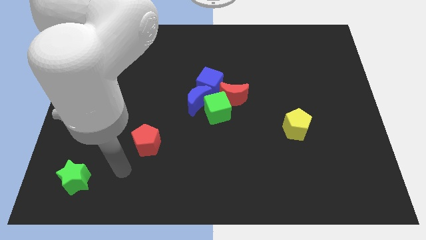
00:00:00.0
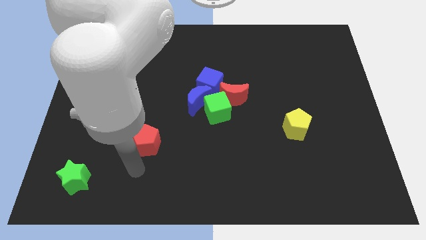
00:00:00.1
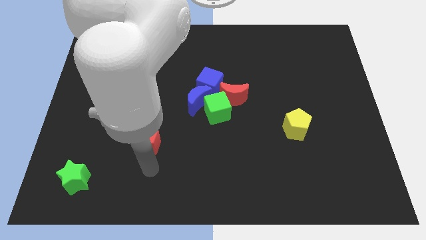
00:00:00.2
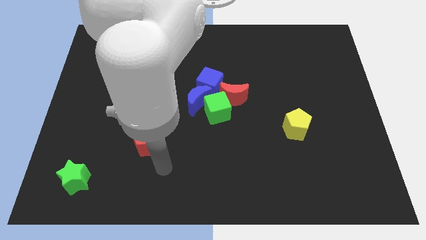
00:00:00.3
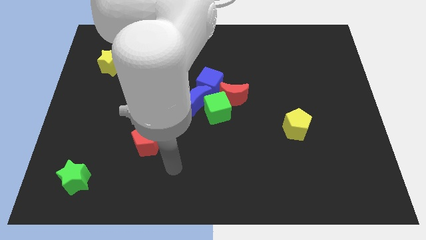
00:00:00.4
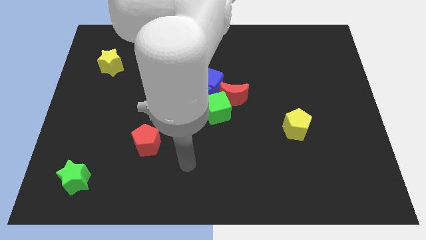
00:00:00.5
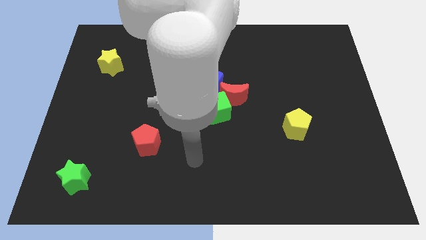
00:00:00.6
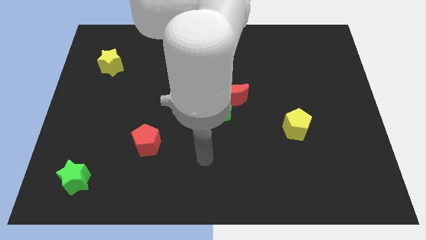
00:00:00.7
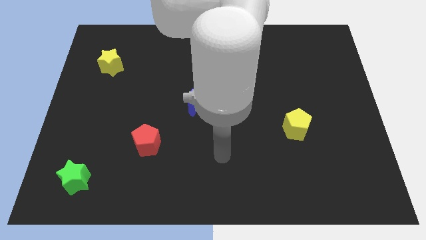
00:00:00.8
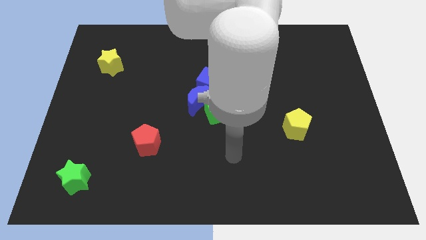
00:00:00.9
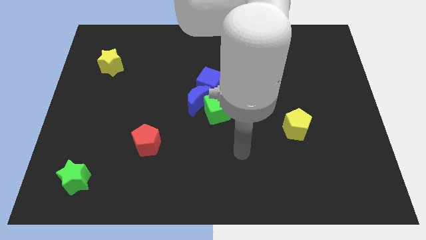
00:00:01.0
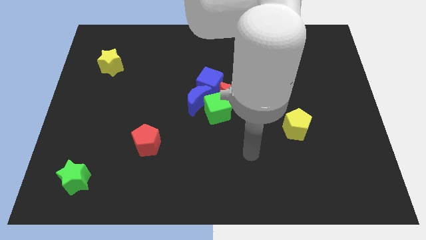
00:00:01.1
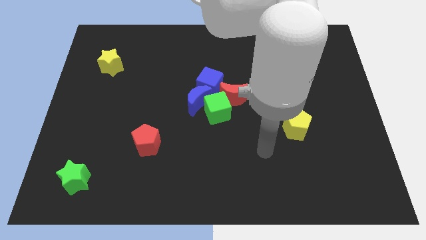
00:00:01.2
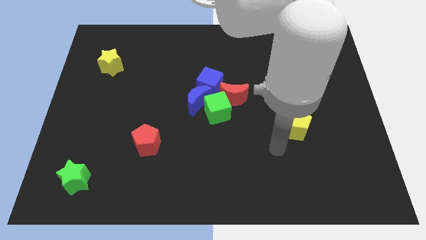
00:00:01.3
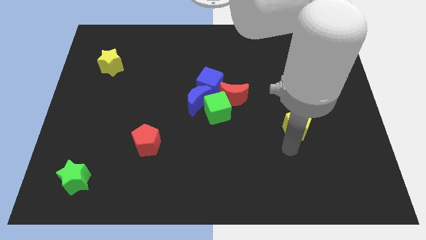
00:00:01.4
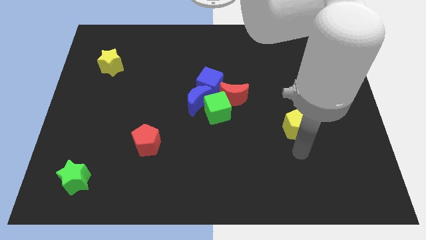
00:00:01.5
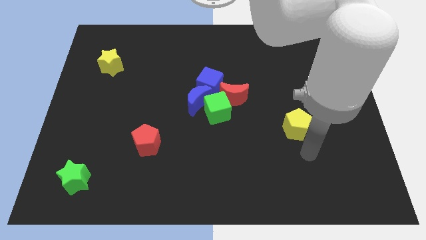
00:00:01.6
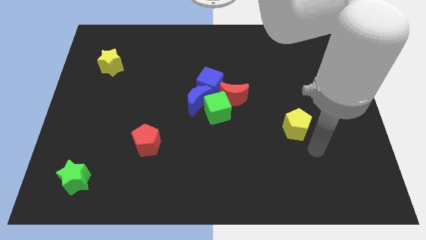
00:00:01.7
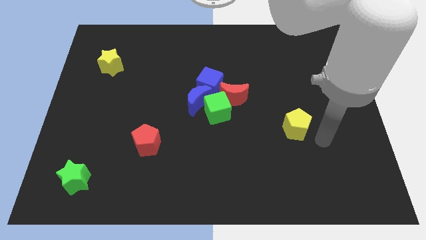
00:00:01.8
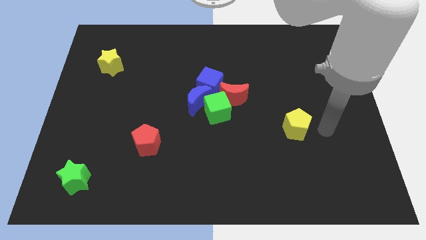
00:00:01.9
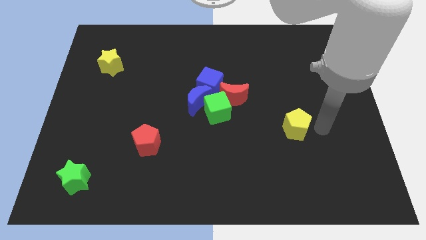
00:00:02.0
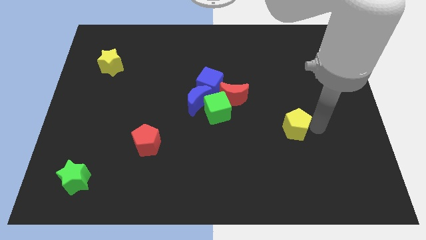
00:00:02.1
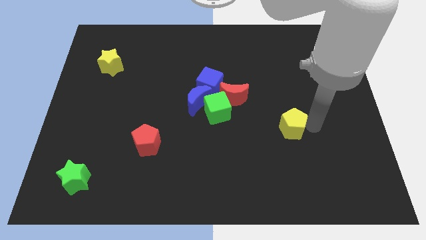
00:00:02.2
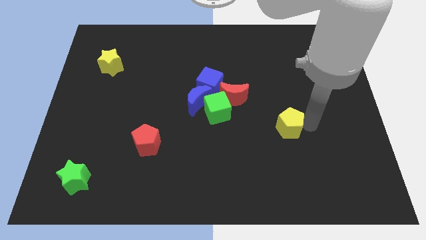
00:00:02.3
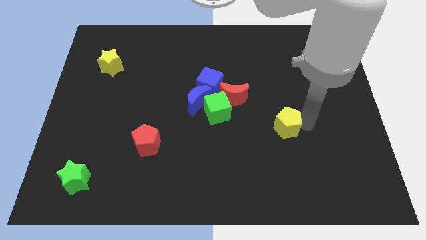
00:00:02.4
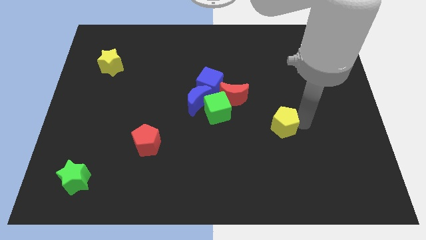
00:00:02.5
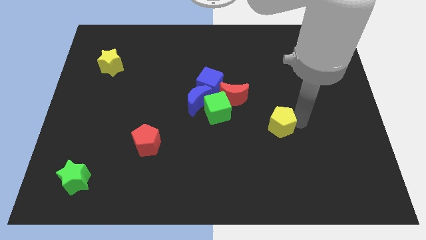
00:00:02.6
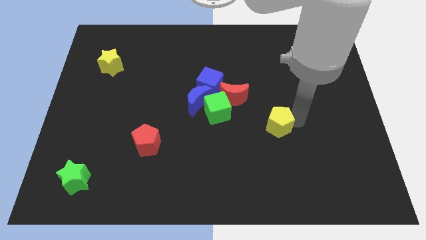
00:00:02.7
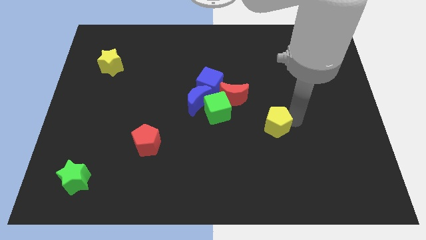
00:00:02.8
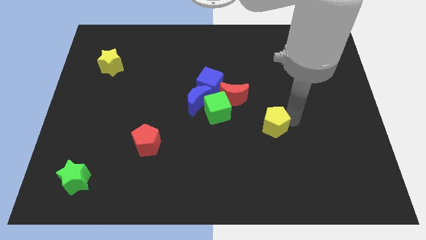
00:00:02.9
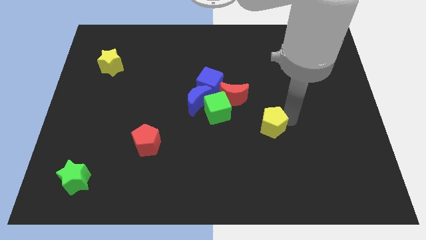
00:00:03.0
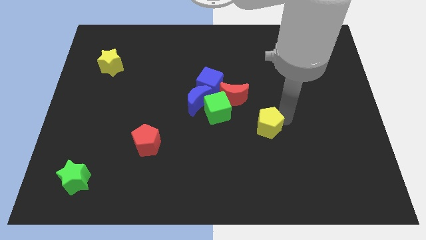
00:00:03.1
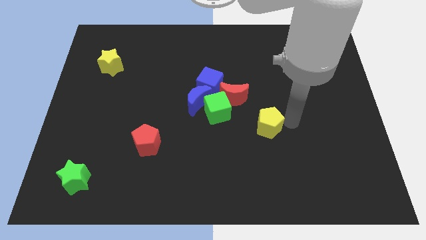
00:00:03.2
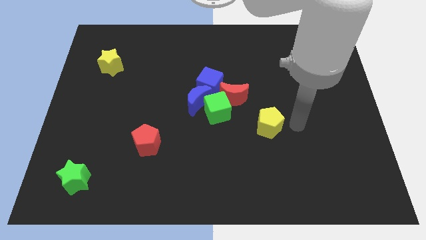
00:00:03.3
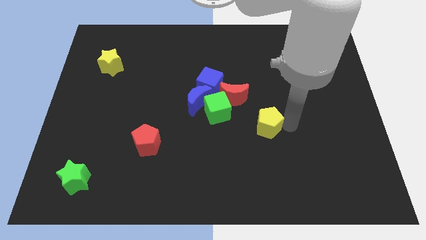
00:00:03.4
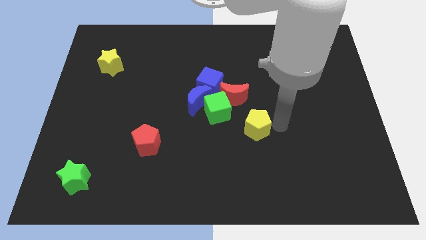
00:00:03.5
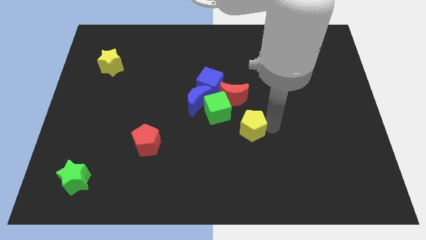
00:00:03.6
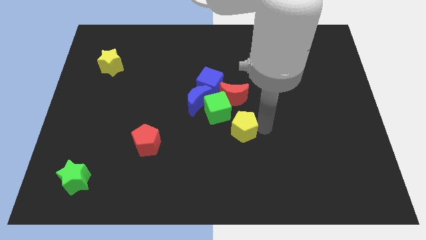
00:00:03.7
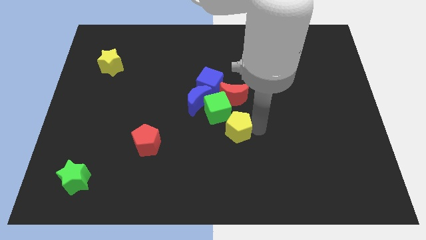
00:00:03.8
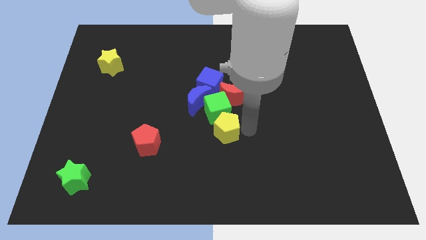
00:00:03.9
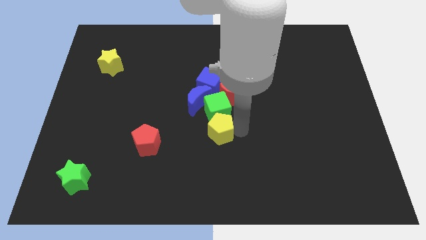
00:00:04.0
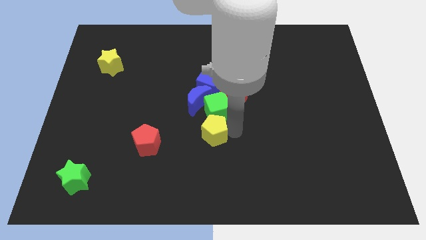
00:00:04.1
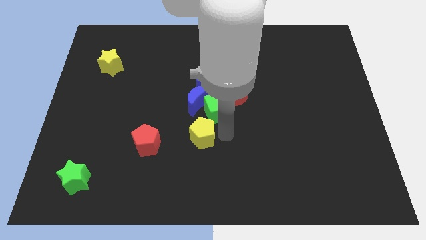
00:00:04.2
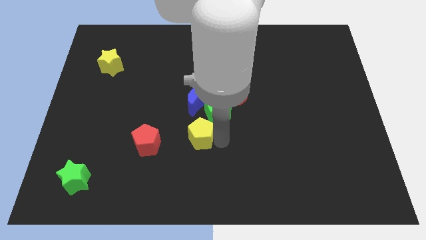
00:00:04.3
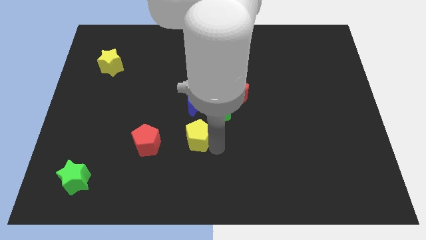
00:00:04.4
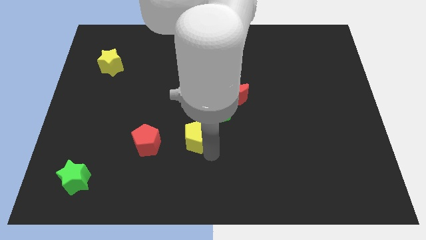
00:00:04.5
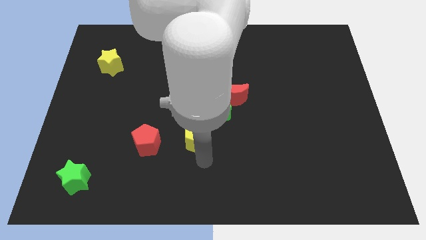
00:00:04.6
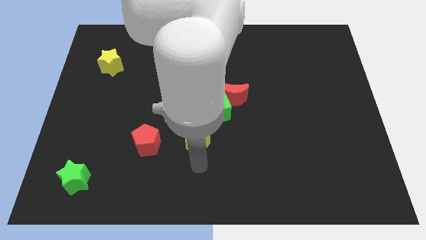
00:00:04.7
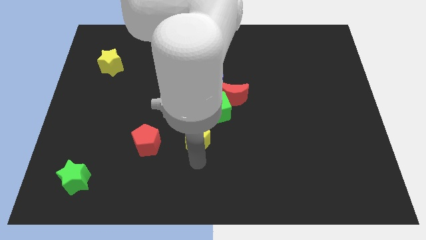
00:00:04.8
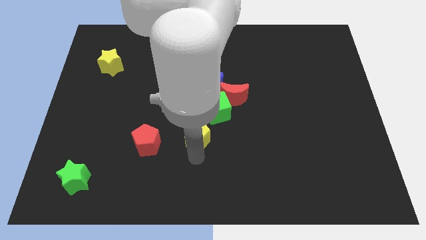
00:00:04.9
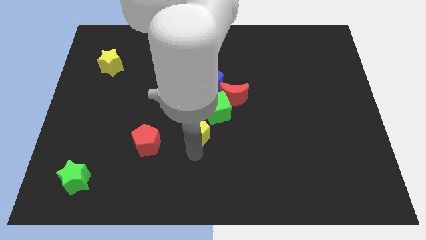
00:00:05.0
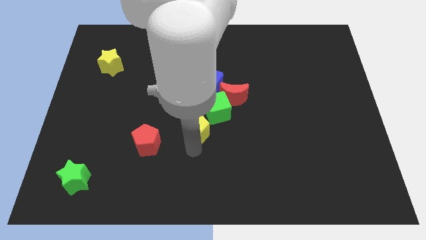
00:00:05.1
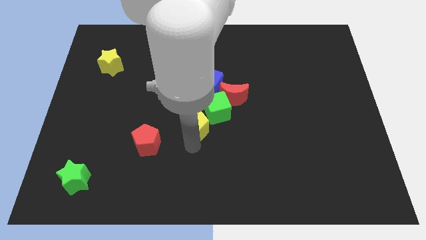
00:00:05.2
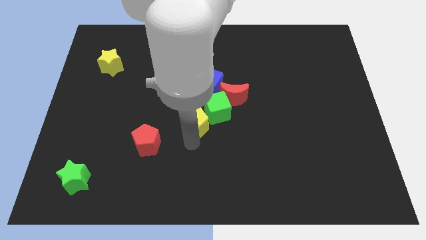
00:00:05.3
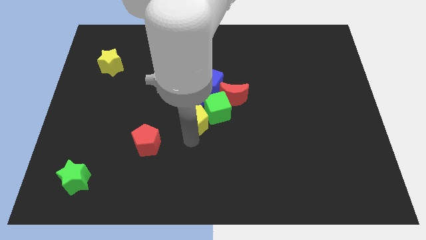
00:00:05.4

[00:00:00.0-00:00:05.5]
push the yellow pentagon to the blue moon

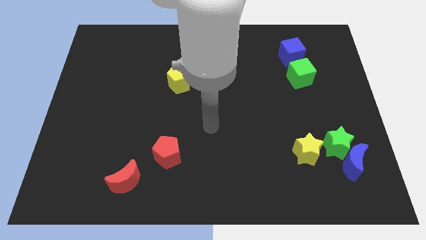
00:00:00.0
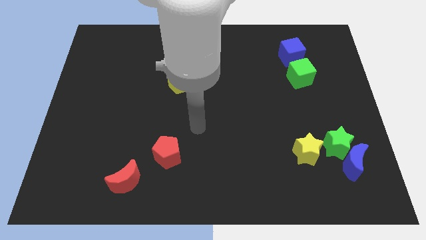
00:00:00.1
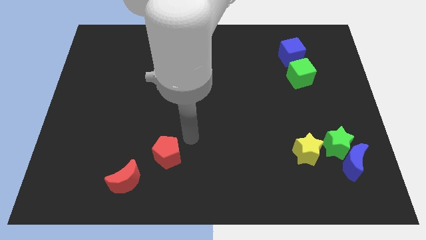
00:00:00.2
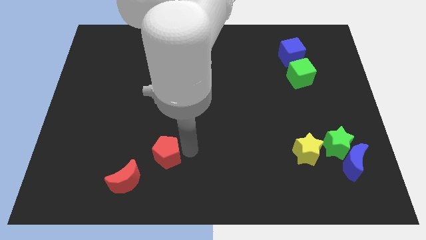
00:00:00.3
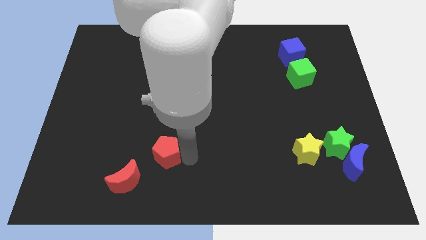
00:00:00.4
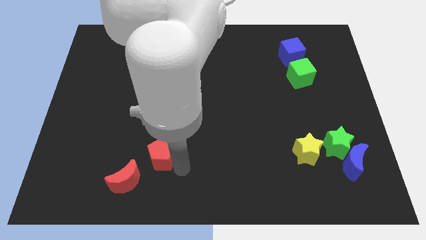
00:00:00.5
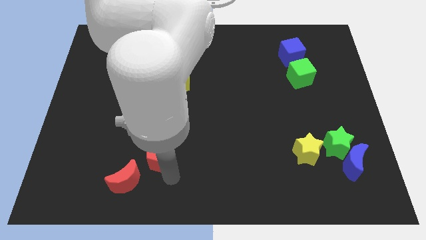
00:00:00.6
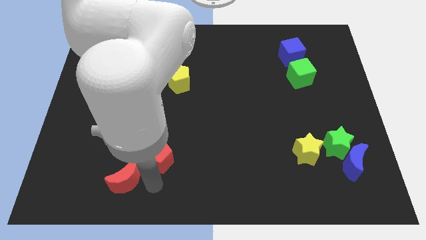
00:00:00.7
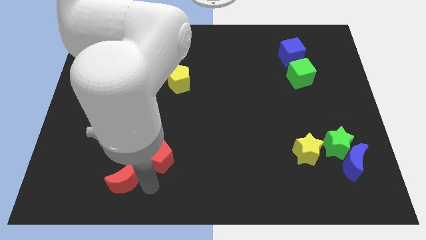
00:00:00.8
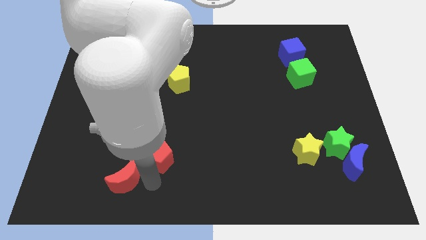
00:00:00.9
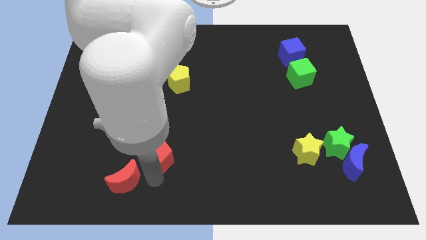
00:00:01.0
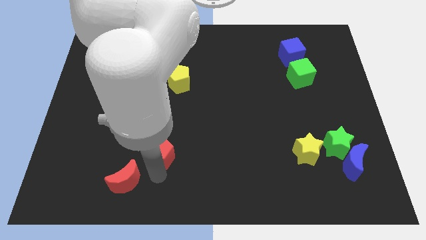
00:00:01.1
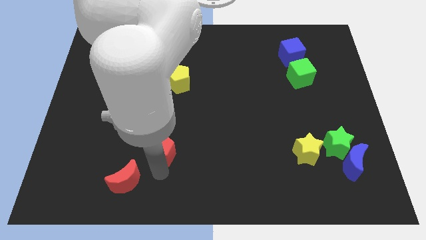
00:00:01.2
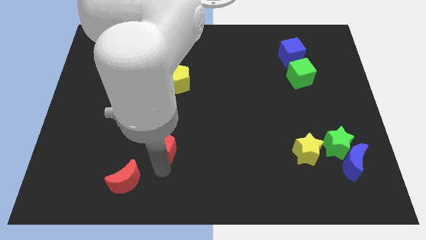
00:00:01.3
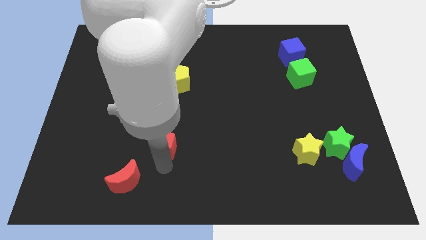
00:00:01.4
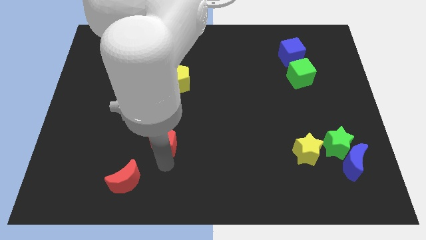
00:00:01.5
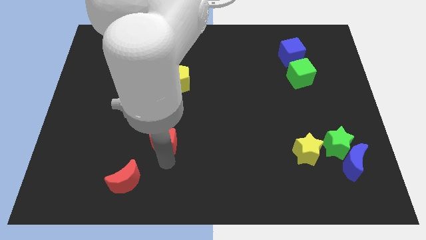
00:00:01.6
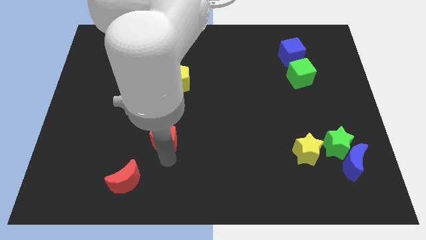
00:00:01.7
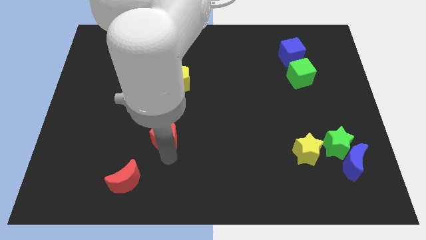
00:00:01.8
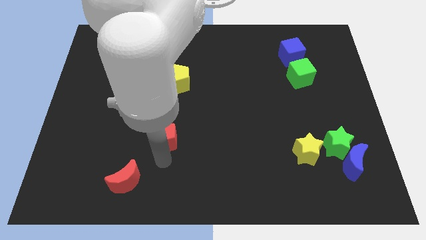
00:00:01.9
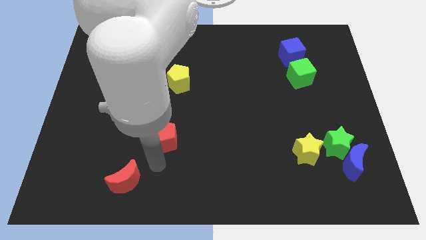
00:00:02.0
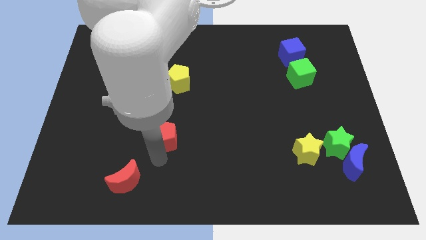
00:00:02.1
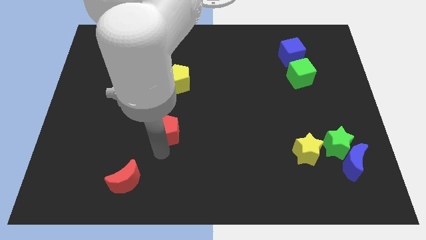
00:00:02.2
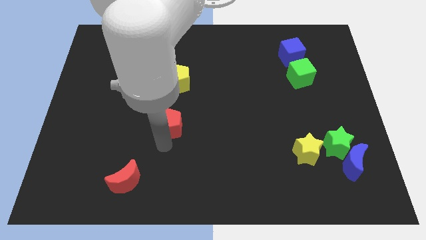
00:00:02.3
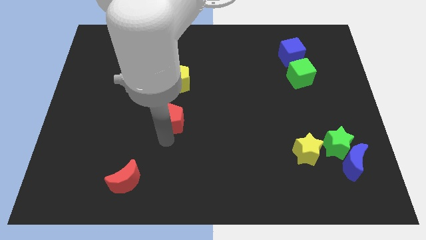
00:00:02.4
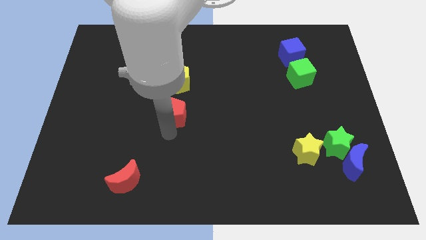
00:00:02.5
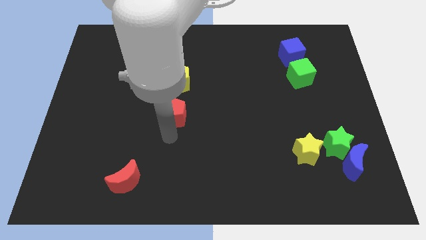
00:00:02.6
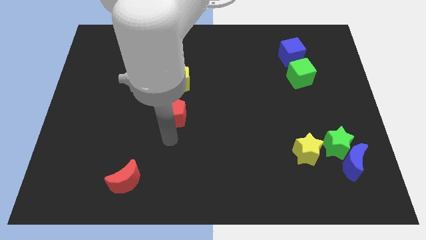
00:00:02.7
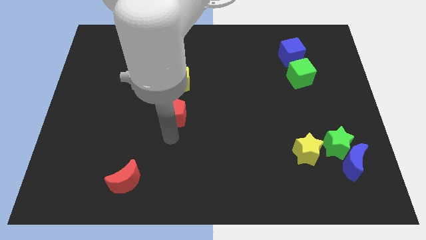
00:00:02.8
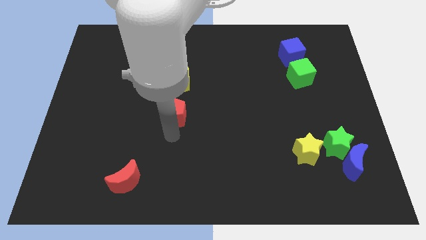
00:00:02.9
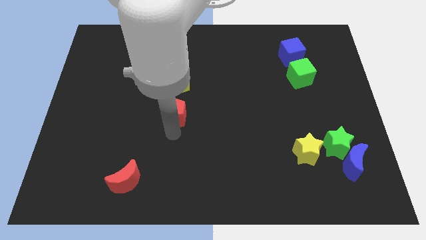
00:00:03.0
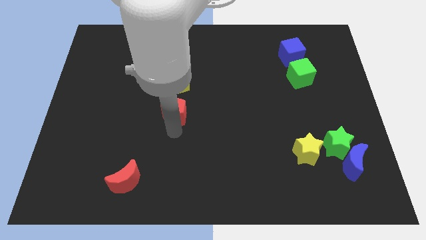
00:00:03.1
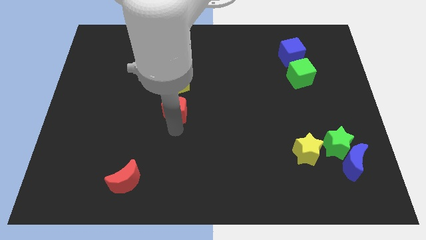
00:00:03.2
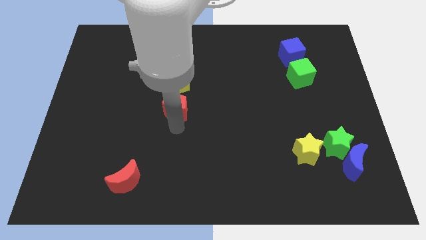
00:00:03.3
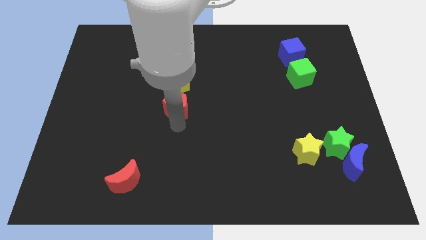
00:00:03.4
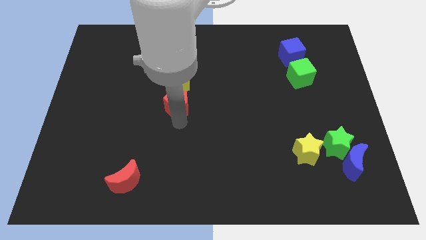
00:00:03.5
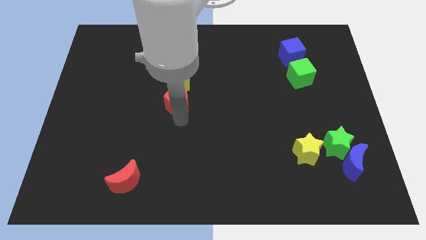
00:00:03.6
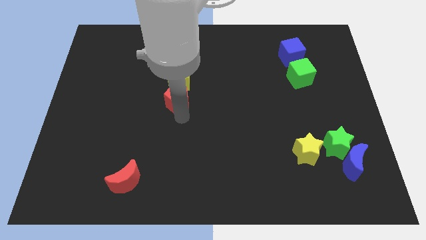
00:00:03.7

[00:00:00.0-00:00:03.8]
put the red pentagon close to the yellow pentagon
